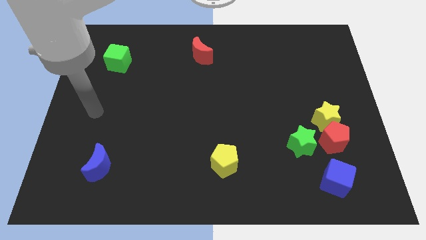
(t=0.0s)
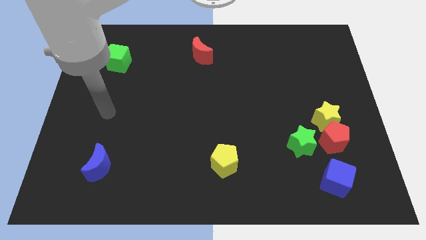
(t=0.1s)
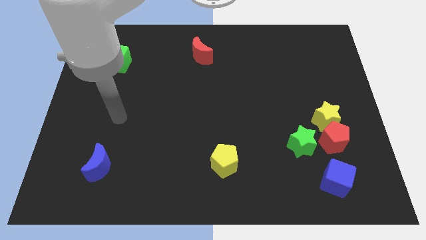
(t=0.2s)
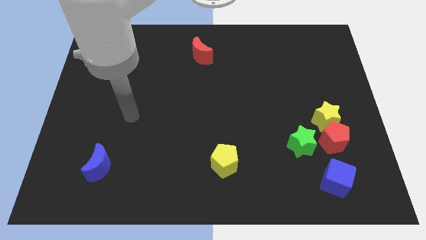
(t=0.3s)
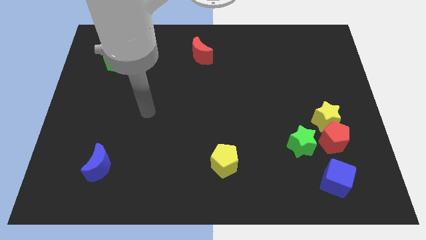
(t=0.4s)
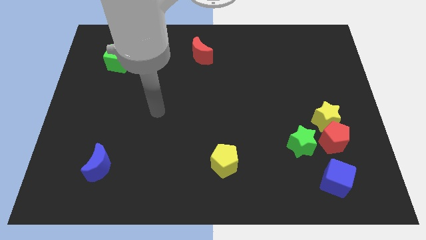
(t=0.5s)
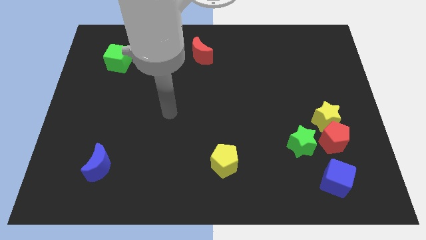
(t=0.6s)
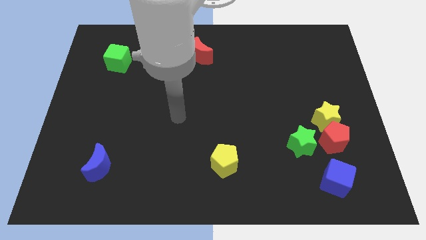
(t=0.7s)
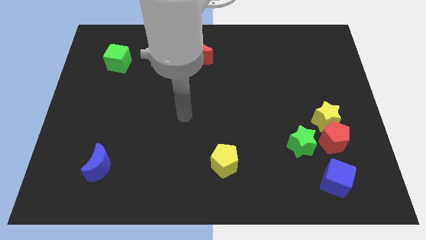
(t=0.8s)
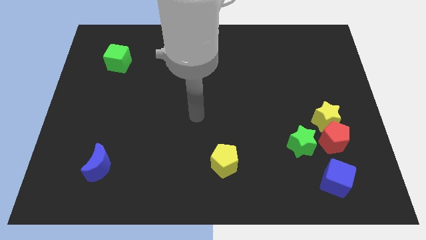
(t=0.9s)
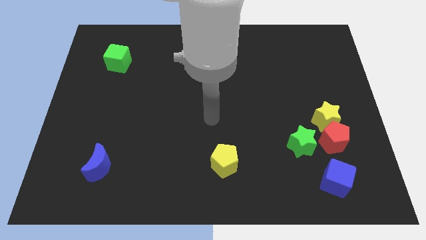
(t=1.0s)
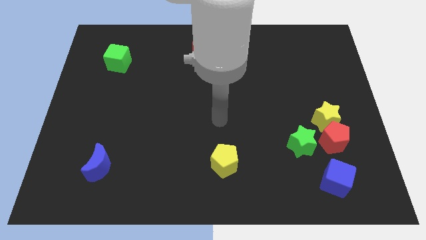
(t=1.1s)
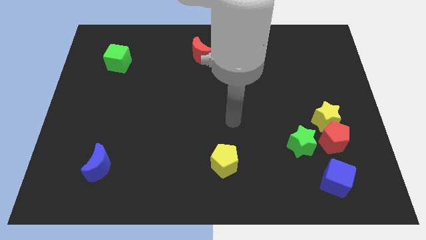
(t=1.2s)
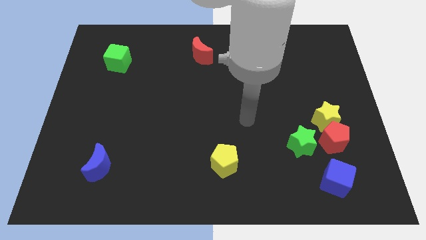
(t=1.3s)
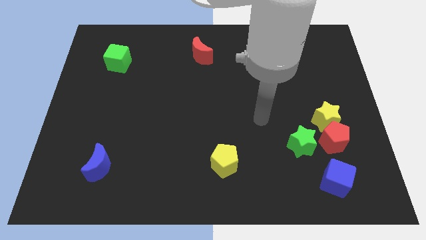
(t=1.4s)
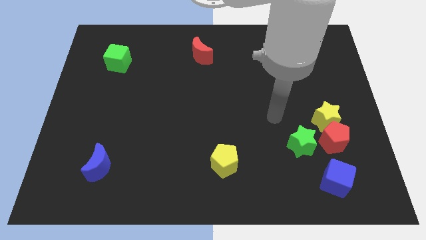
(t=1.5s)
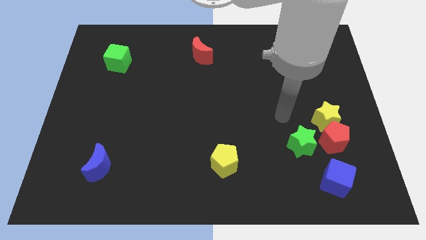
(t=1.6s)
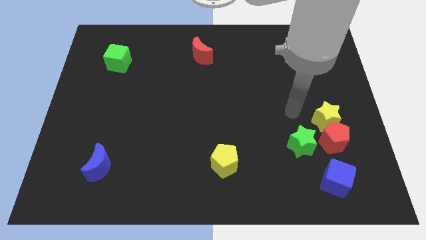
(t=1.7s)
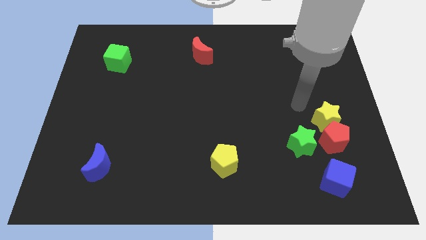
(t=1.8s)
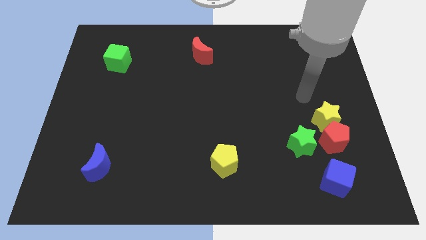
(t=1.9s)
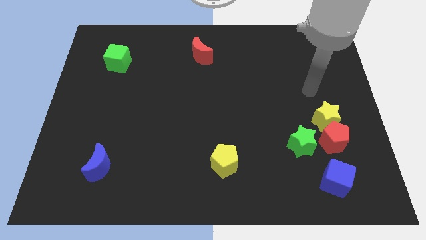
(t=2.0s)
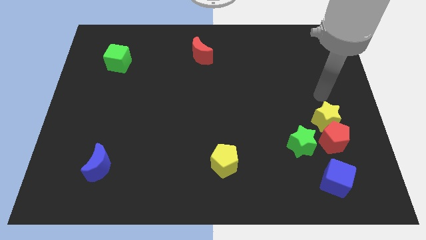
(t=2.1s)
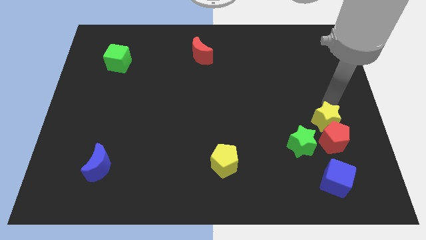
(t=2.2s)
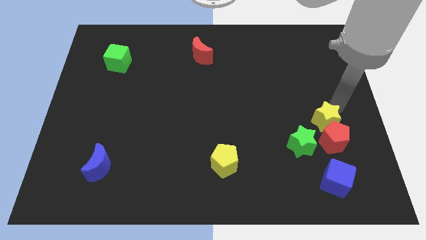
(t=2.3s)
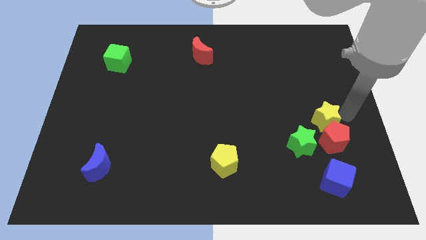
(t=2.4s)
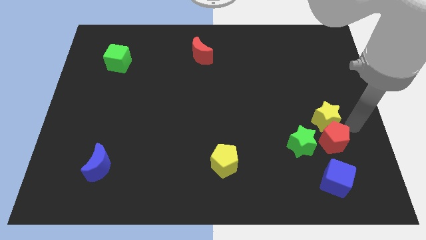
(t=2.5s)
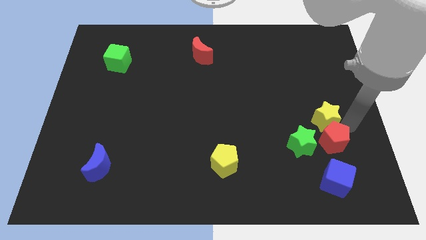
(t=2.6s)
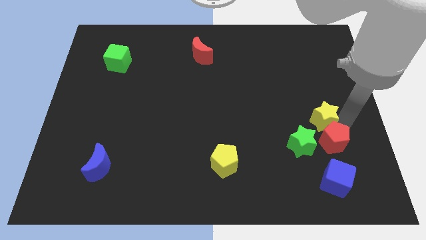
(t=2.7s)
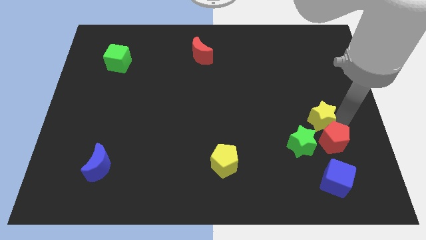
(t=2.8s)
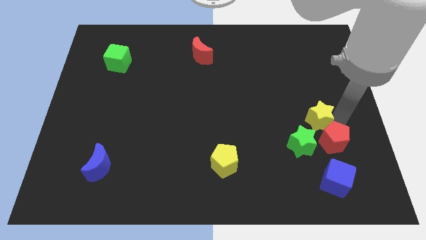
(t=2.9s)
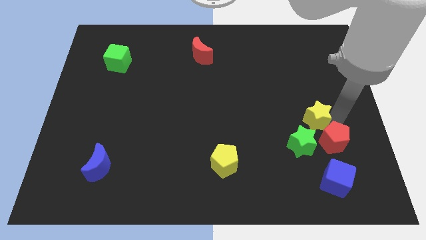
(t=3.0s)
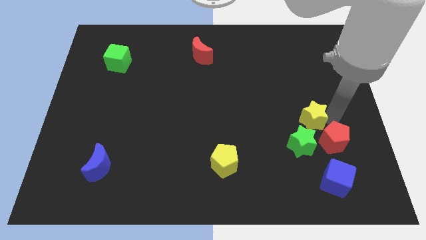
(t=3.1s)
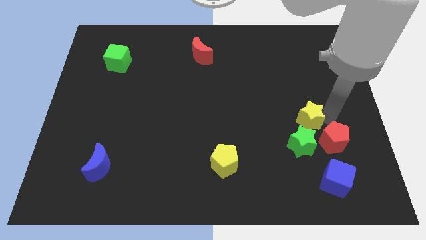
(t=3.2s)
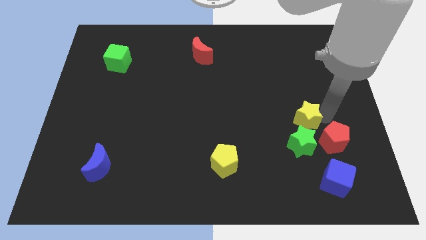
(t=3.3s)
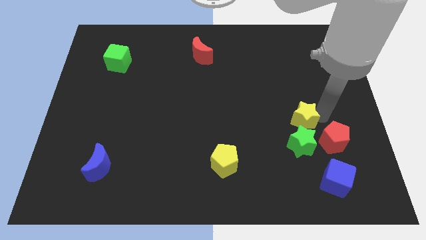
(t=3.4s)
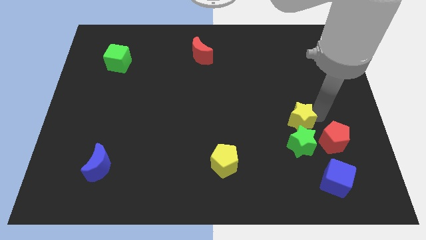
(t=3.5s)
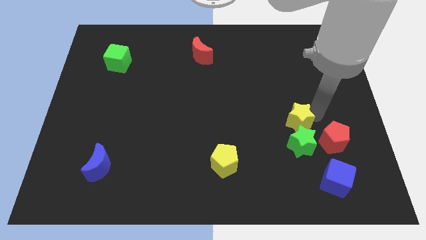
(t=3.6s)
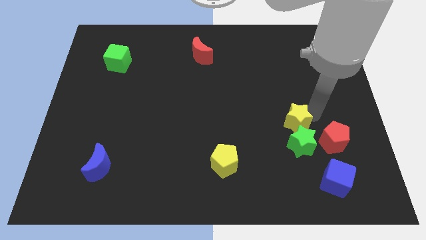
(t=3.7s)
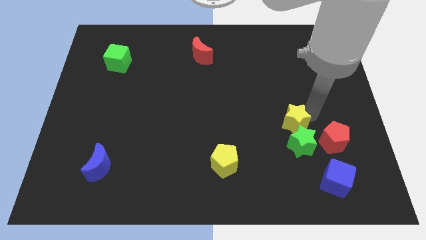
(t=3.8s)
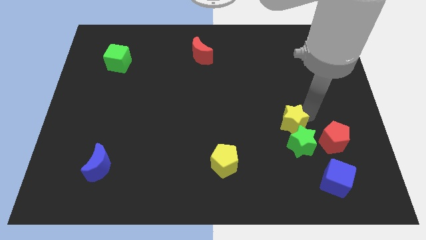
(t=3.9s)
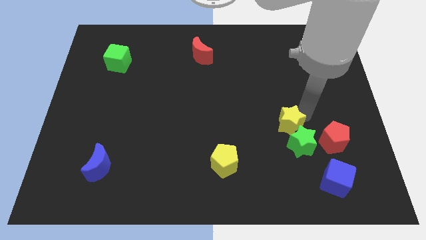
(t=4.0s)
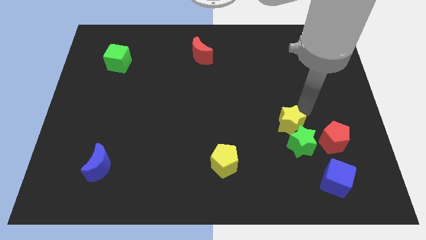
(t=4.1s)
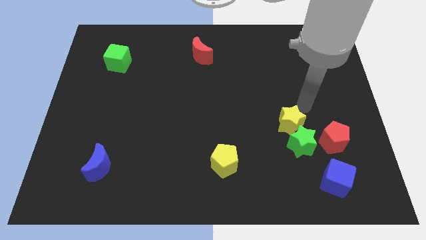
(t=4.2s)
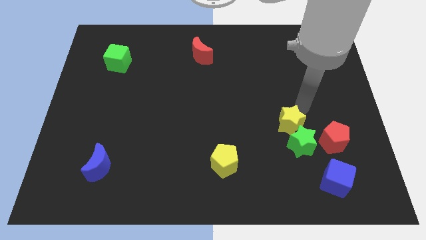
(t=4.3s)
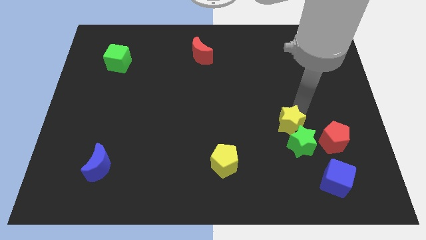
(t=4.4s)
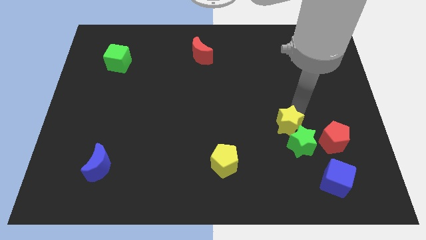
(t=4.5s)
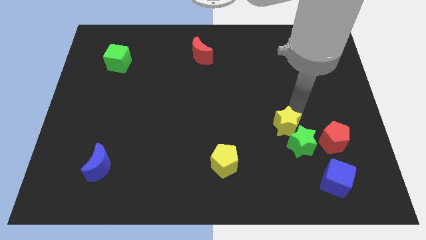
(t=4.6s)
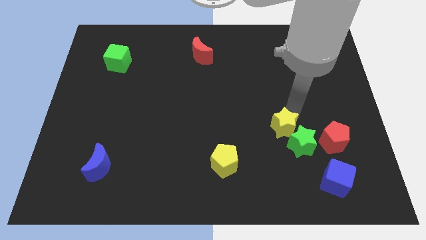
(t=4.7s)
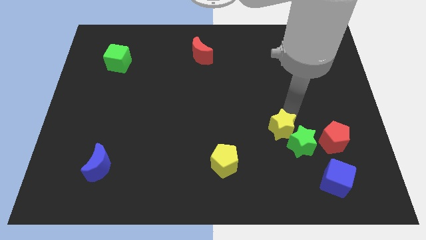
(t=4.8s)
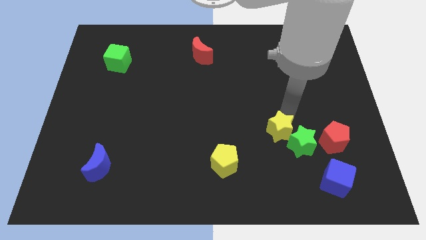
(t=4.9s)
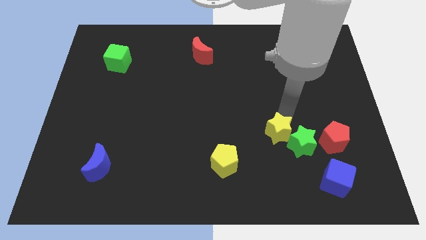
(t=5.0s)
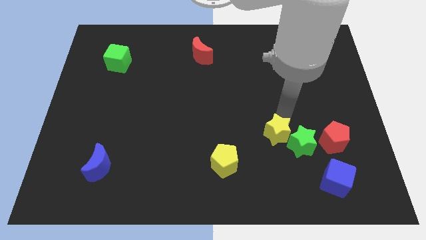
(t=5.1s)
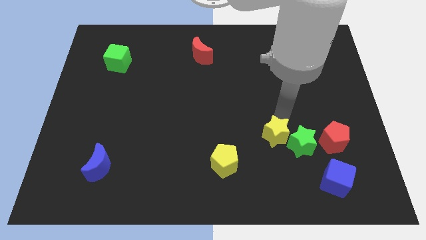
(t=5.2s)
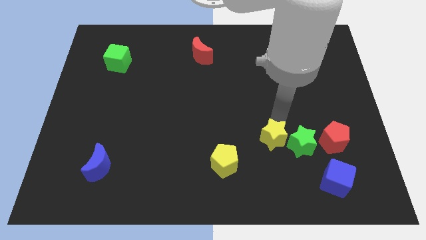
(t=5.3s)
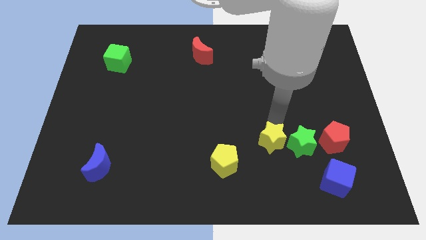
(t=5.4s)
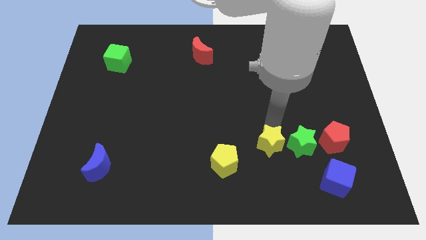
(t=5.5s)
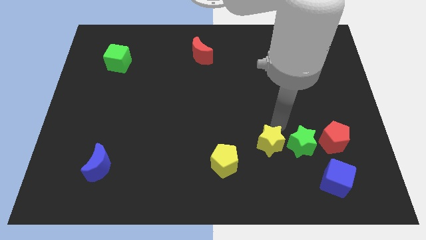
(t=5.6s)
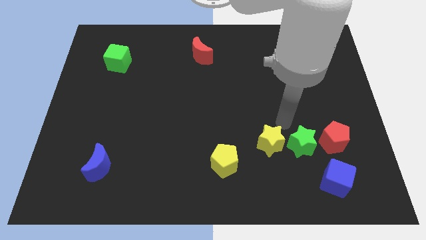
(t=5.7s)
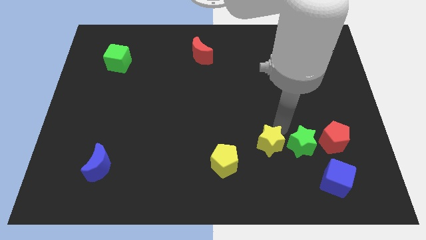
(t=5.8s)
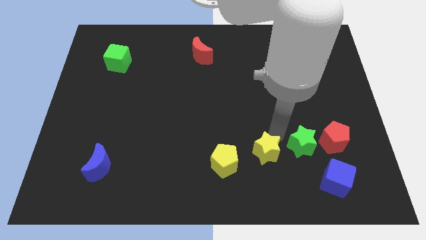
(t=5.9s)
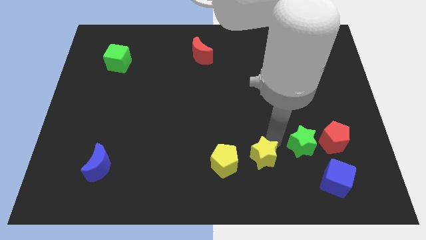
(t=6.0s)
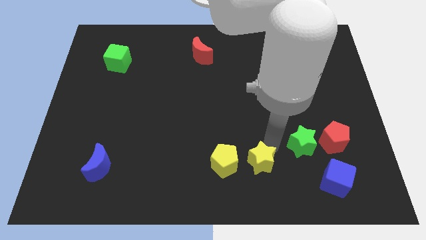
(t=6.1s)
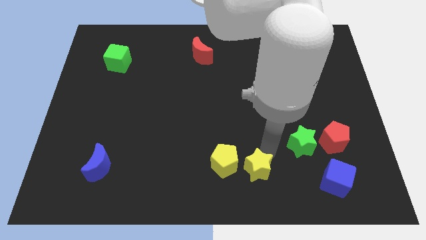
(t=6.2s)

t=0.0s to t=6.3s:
put the yellow star to the bottom
